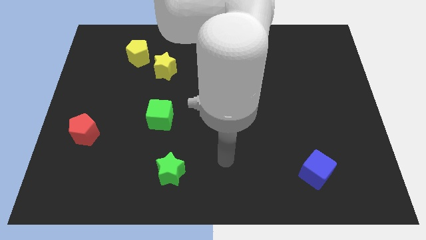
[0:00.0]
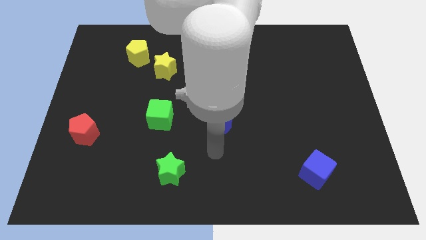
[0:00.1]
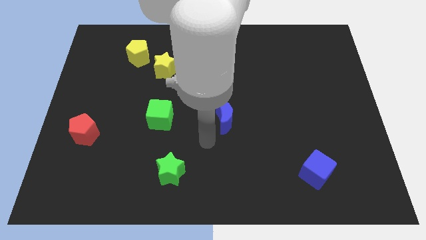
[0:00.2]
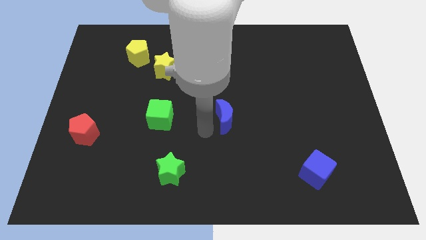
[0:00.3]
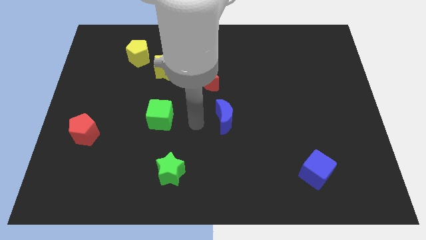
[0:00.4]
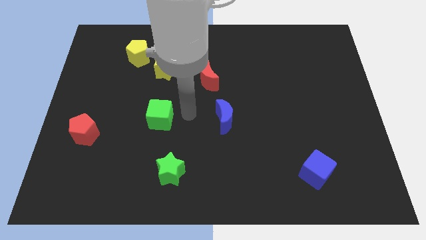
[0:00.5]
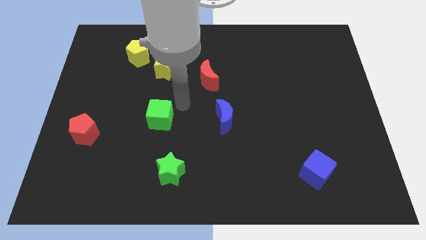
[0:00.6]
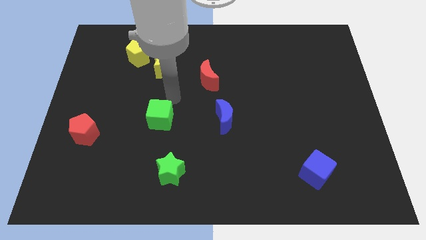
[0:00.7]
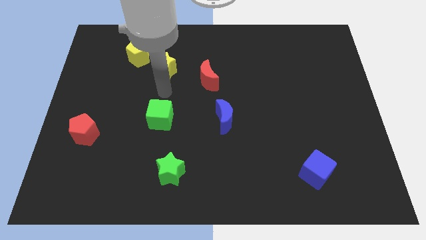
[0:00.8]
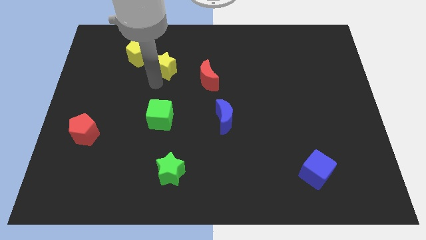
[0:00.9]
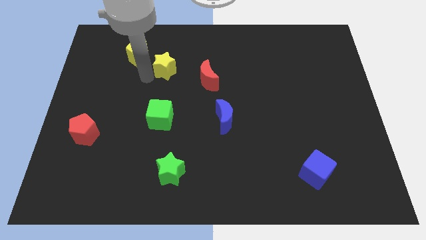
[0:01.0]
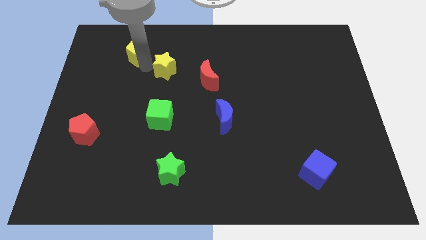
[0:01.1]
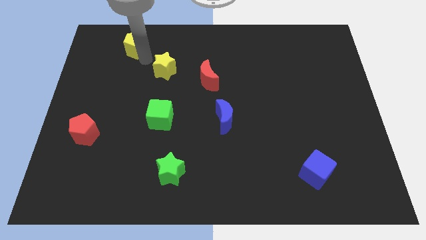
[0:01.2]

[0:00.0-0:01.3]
move the yellow star away from the yellow pentagon

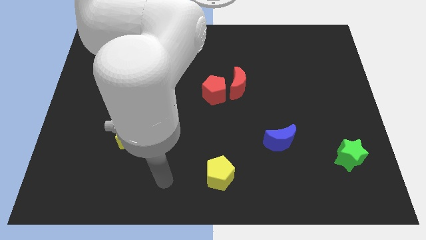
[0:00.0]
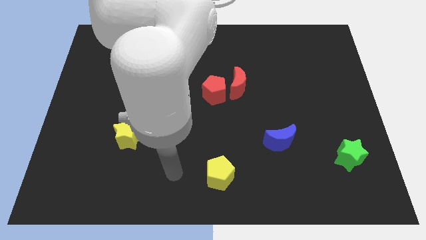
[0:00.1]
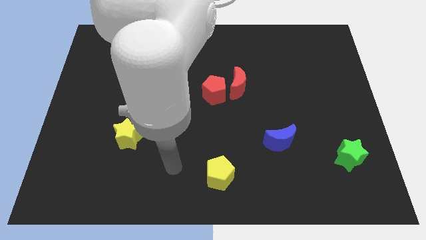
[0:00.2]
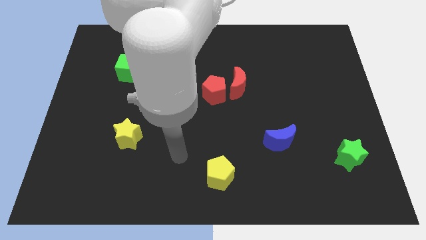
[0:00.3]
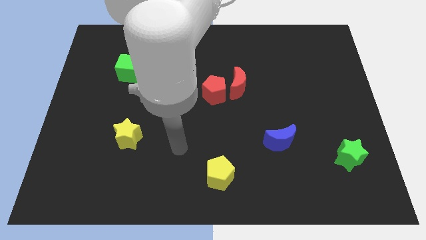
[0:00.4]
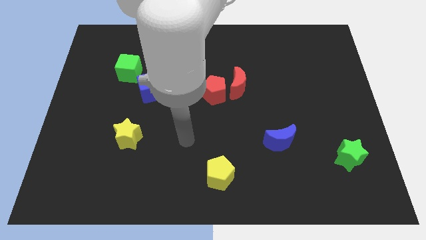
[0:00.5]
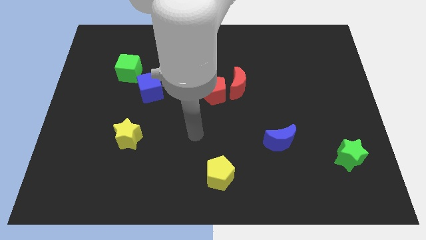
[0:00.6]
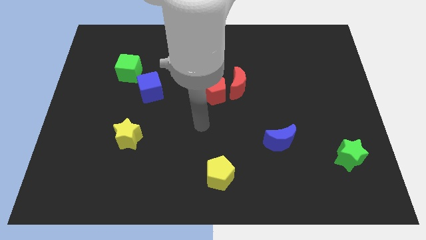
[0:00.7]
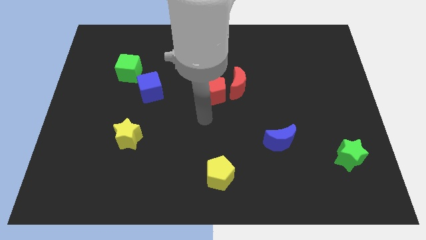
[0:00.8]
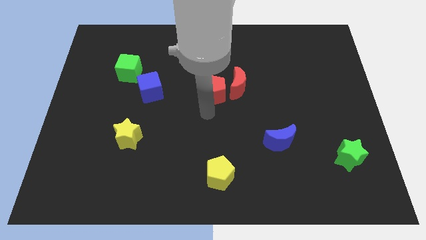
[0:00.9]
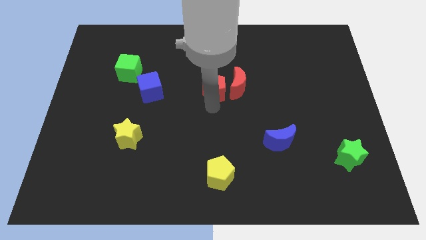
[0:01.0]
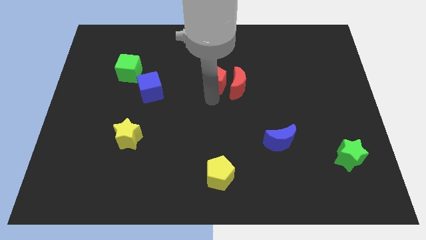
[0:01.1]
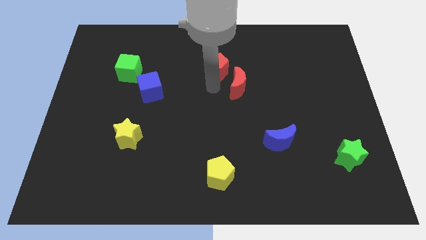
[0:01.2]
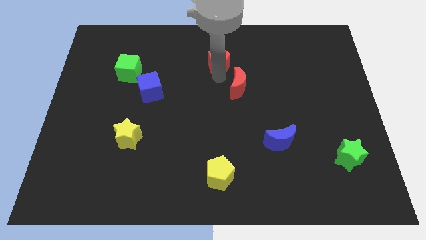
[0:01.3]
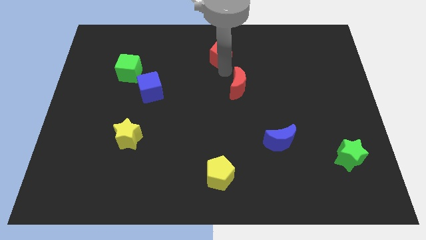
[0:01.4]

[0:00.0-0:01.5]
separate the red moon from the red pentagon

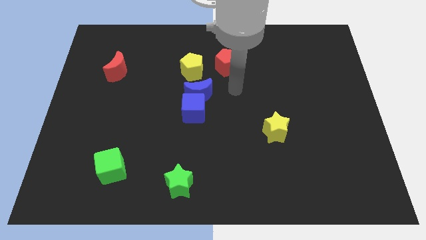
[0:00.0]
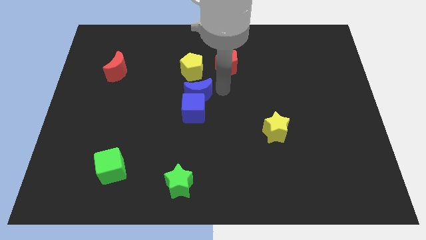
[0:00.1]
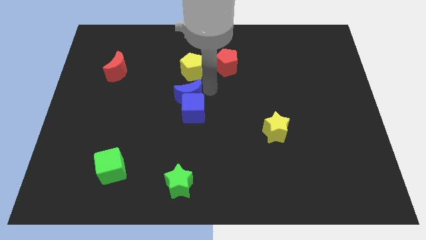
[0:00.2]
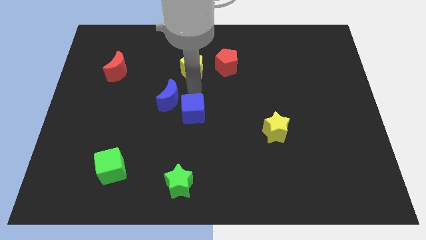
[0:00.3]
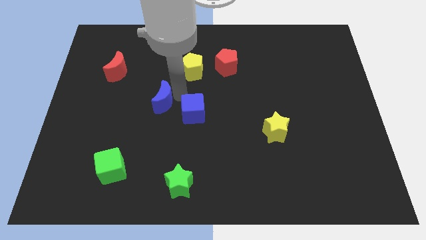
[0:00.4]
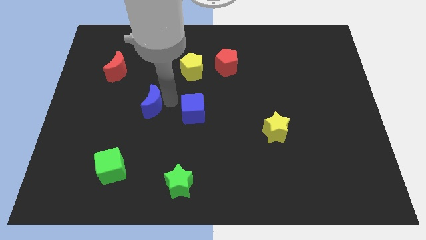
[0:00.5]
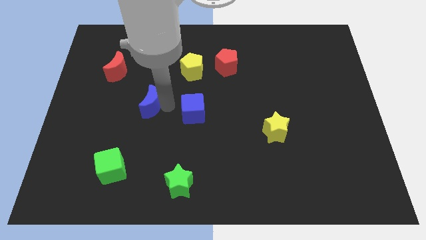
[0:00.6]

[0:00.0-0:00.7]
move the blue cube away from the blue moon

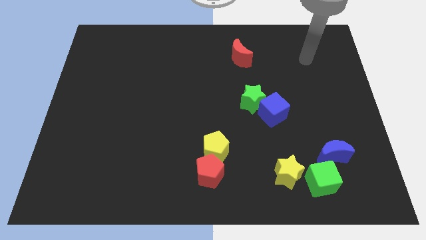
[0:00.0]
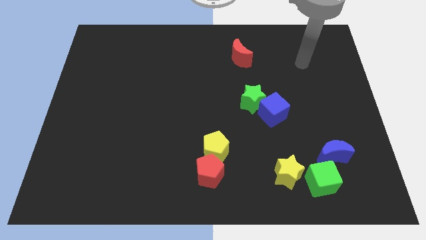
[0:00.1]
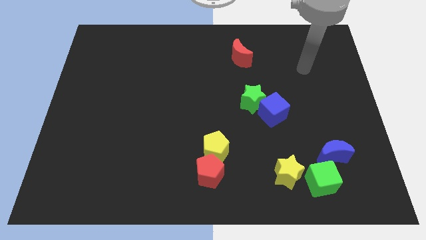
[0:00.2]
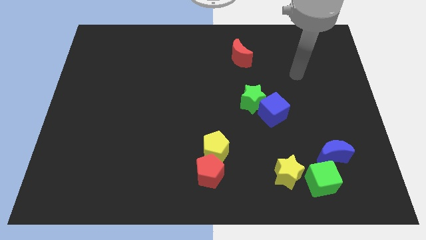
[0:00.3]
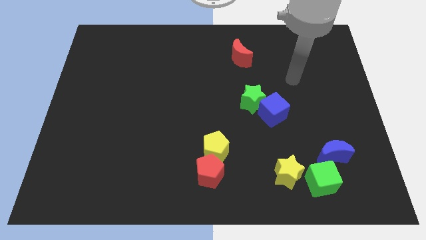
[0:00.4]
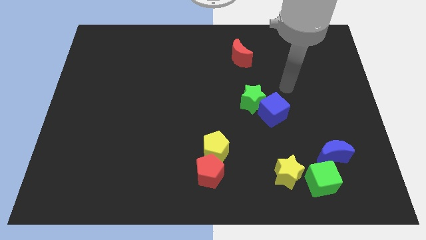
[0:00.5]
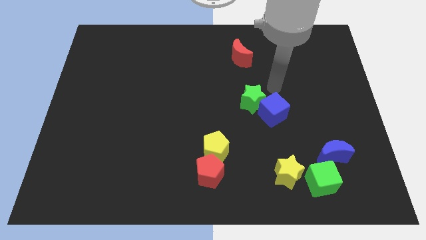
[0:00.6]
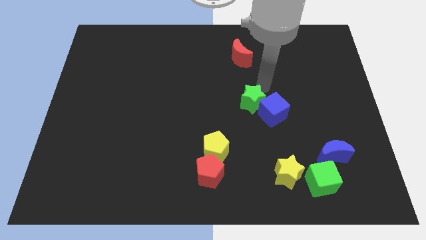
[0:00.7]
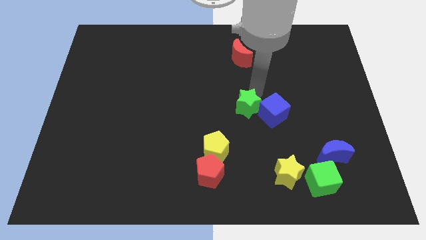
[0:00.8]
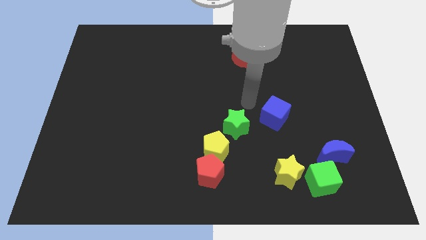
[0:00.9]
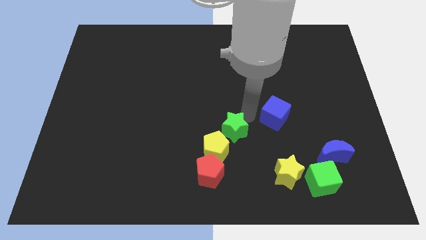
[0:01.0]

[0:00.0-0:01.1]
pull the blue cube apart from the green star

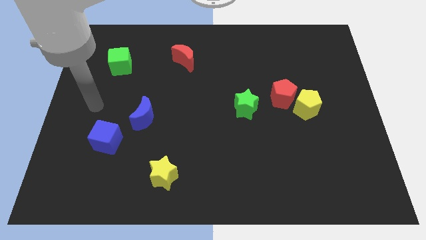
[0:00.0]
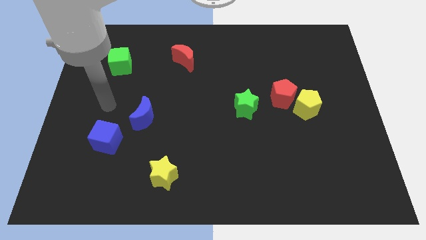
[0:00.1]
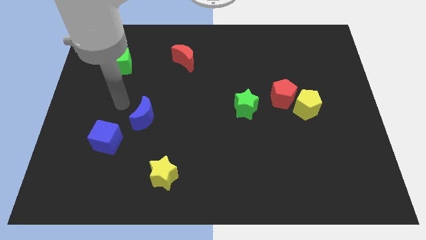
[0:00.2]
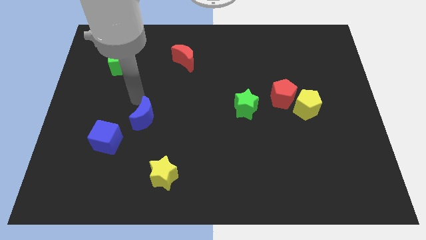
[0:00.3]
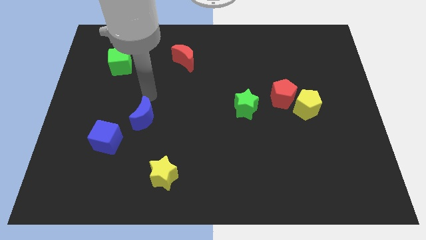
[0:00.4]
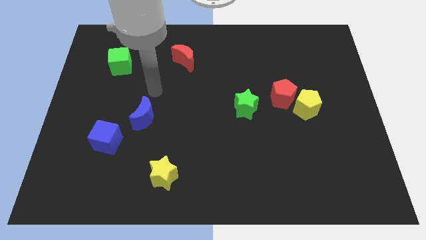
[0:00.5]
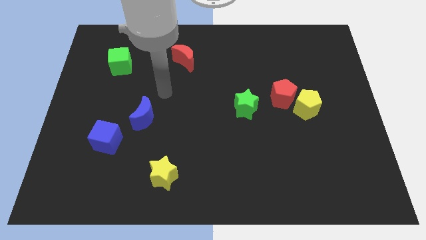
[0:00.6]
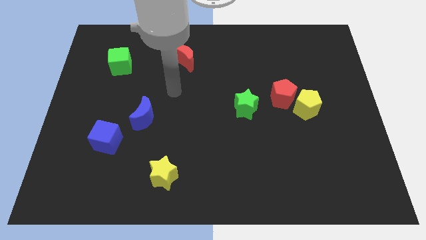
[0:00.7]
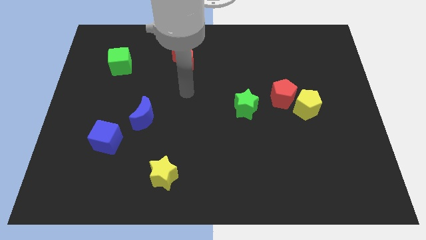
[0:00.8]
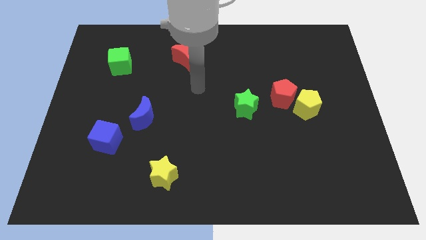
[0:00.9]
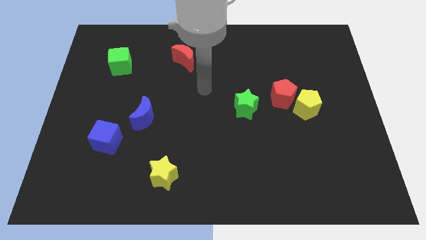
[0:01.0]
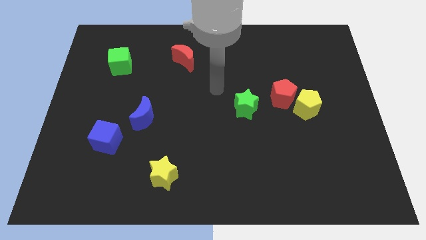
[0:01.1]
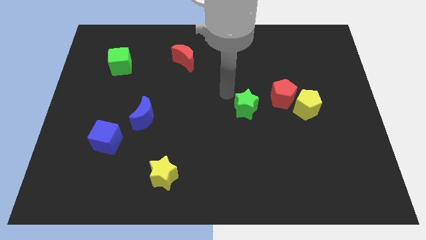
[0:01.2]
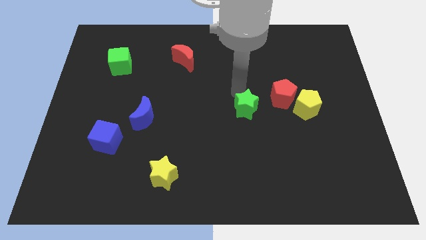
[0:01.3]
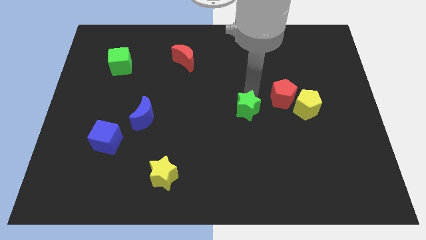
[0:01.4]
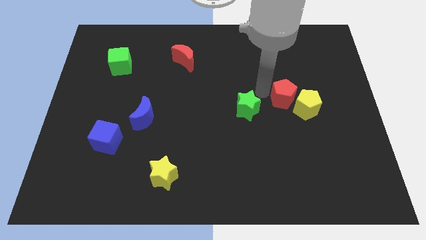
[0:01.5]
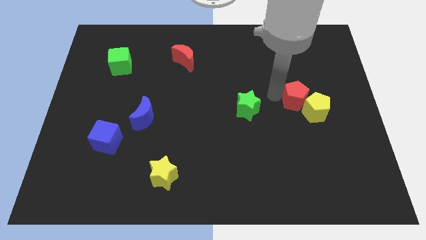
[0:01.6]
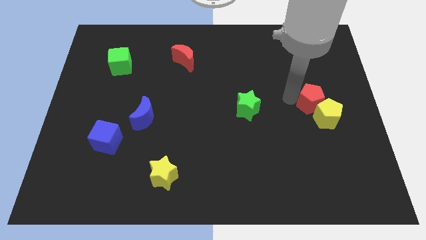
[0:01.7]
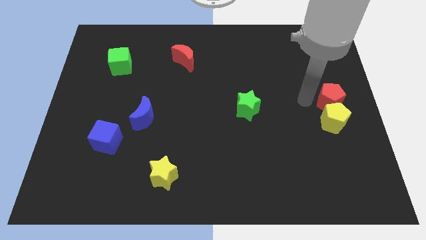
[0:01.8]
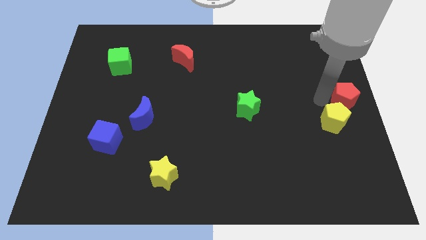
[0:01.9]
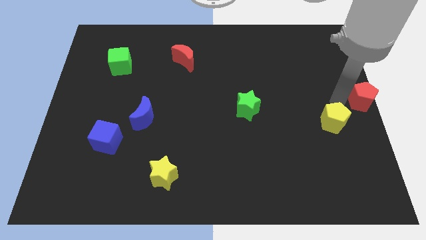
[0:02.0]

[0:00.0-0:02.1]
separate the yellow pentagon from the red pentagon

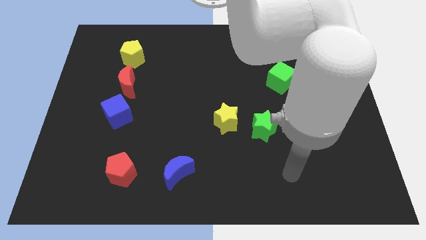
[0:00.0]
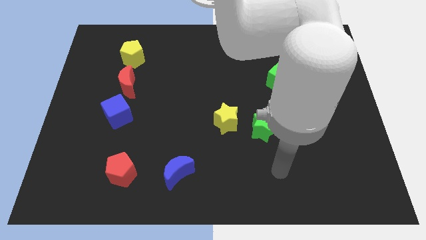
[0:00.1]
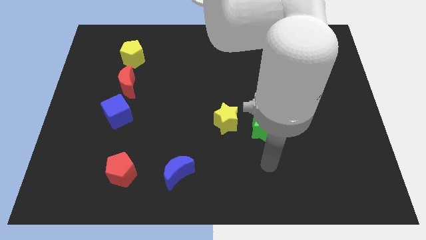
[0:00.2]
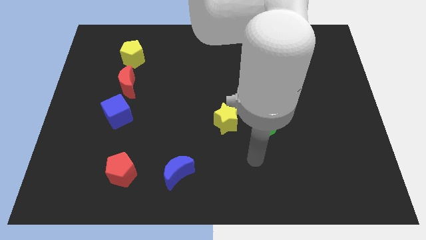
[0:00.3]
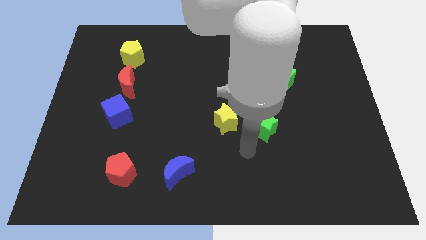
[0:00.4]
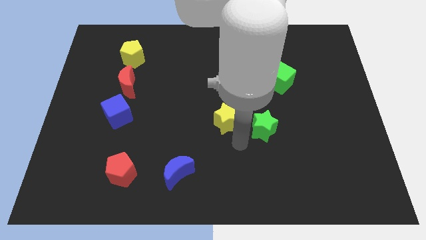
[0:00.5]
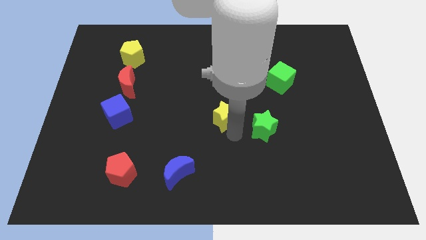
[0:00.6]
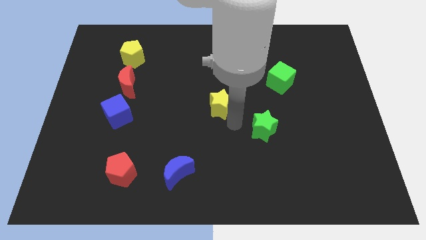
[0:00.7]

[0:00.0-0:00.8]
separate the green star from the yellow star

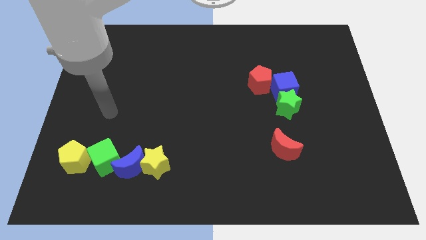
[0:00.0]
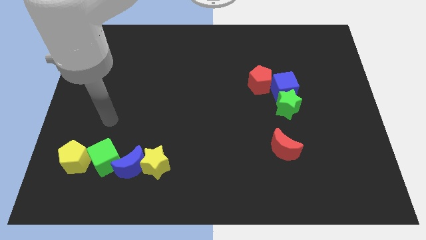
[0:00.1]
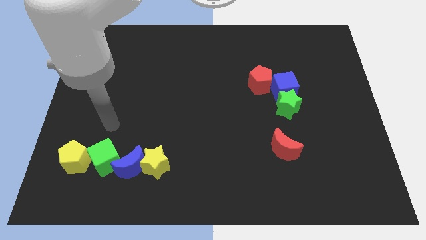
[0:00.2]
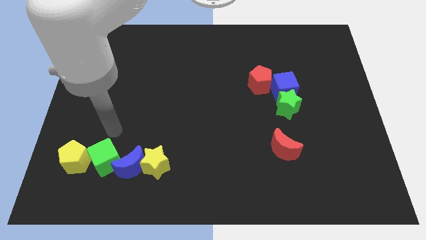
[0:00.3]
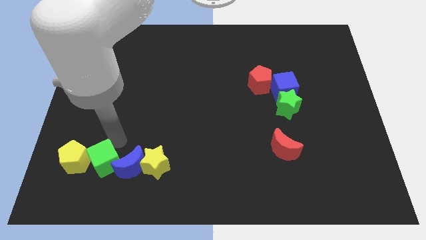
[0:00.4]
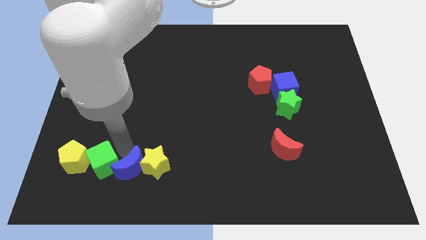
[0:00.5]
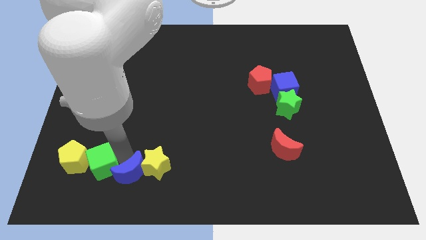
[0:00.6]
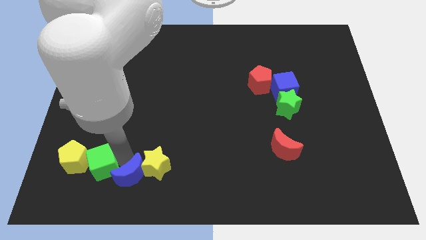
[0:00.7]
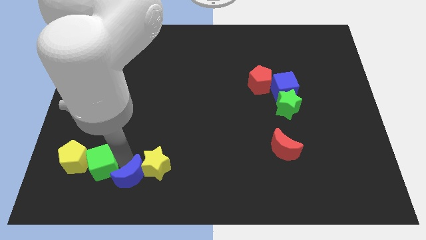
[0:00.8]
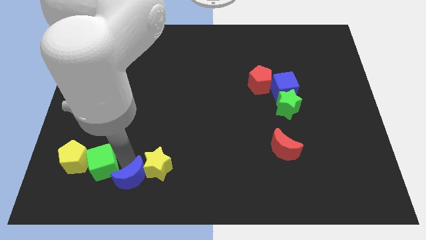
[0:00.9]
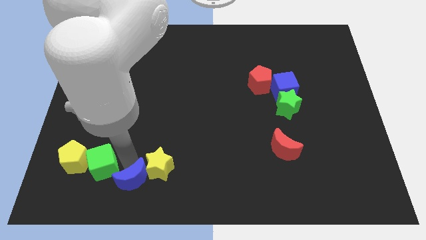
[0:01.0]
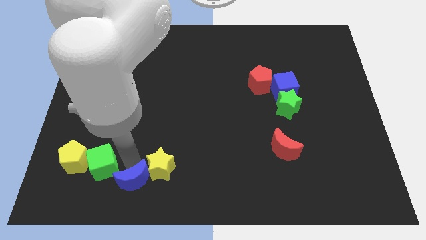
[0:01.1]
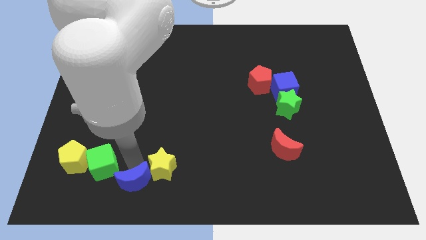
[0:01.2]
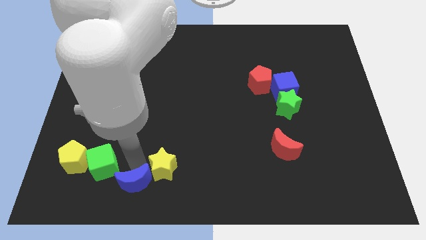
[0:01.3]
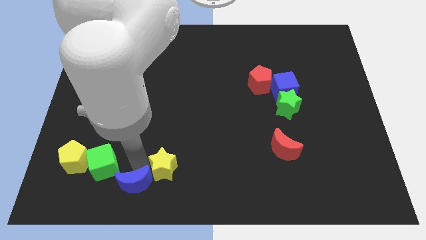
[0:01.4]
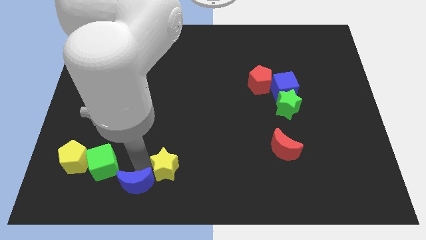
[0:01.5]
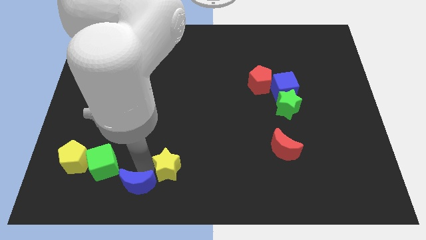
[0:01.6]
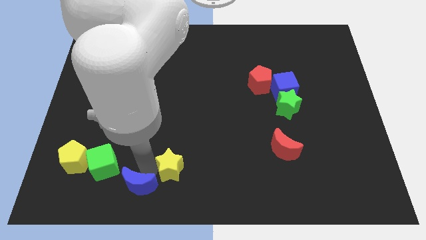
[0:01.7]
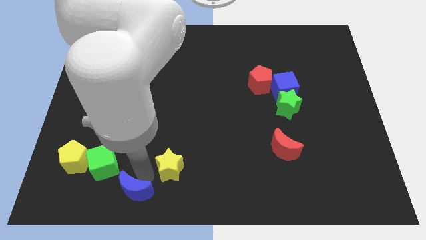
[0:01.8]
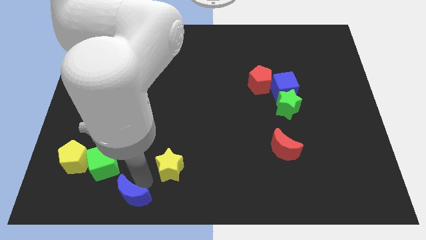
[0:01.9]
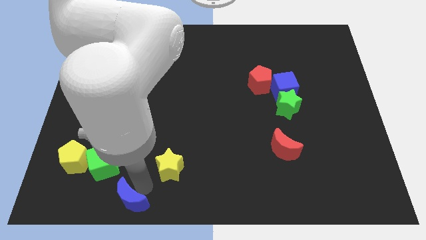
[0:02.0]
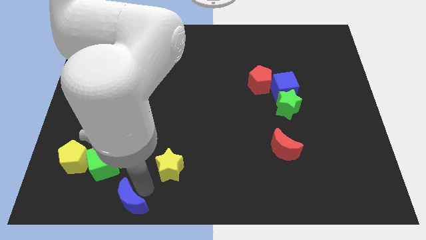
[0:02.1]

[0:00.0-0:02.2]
move the yellow star away from the blue moon
